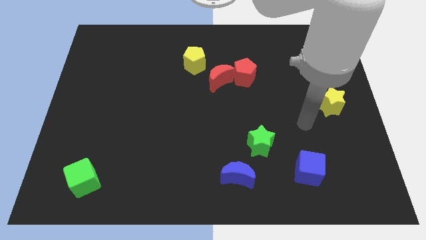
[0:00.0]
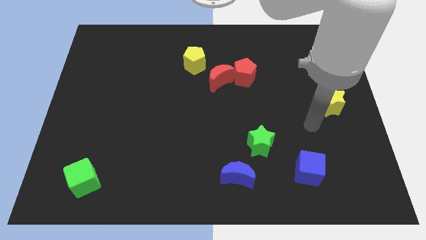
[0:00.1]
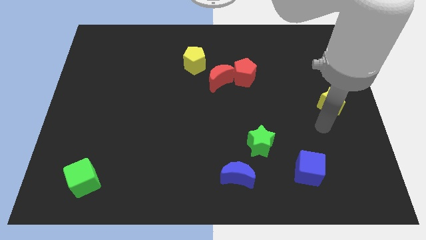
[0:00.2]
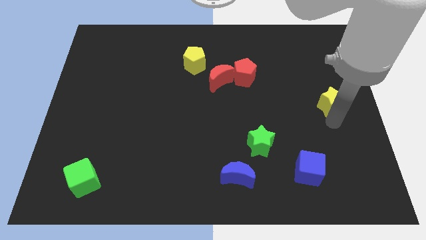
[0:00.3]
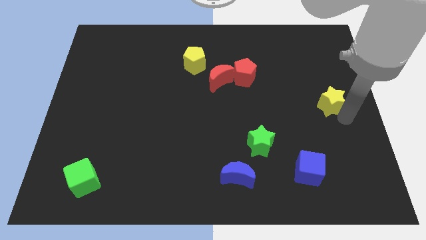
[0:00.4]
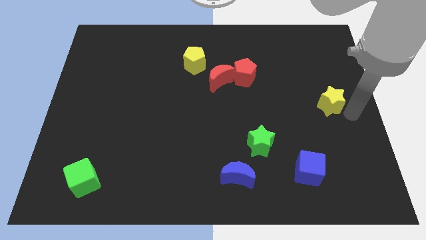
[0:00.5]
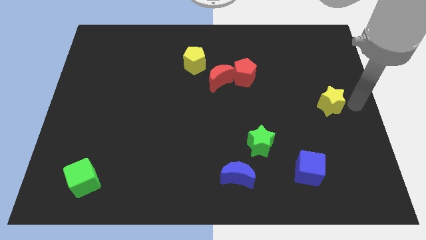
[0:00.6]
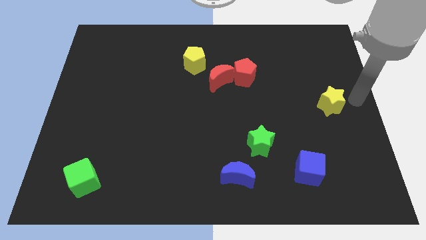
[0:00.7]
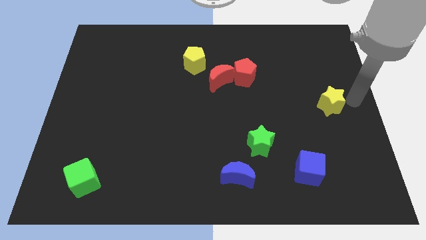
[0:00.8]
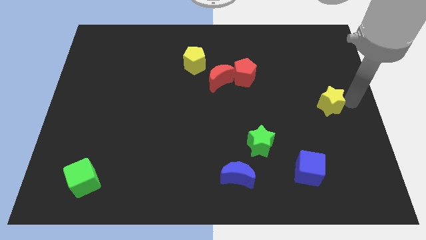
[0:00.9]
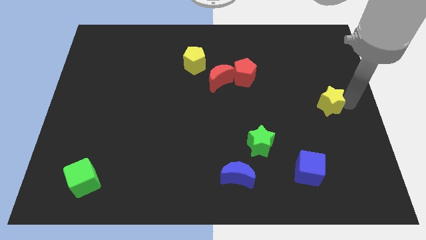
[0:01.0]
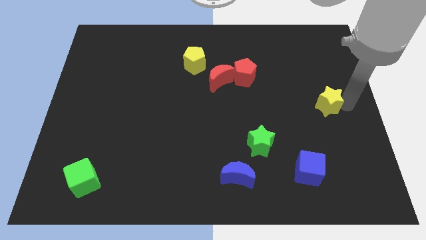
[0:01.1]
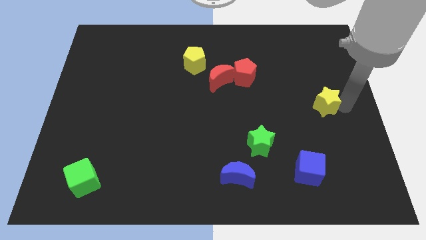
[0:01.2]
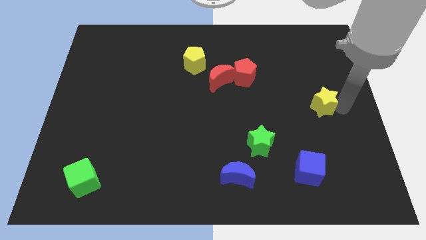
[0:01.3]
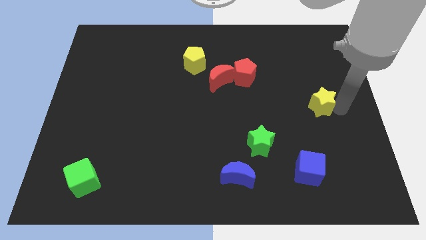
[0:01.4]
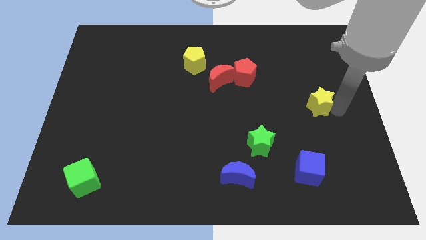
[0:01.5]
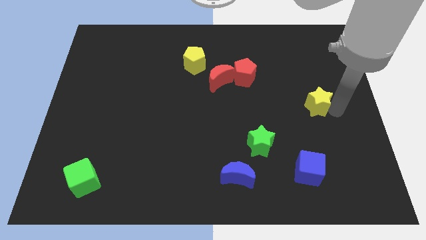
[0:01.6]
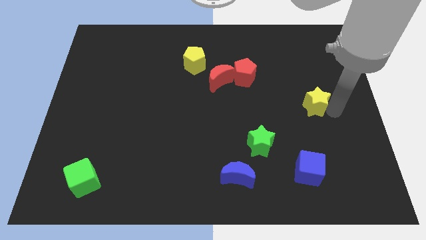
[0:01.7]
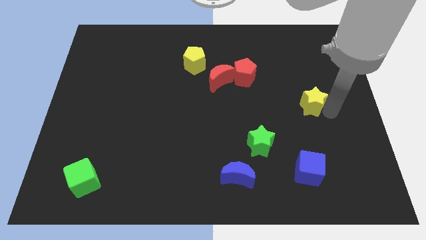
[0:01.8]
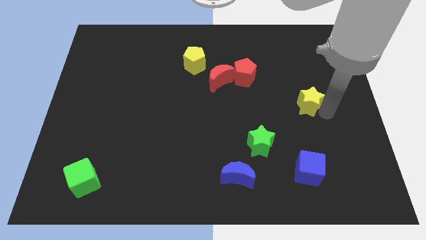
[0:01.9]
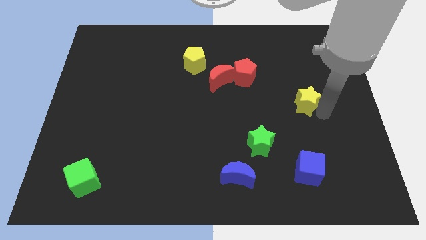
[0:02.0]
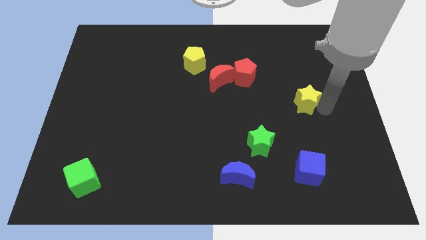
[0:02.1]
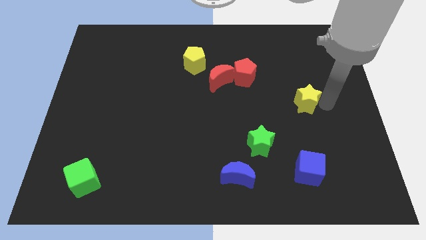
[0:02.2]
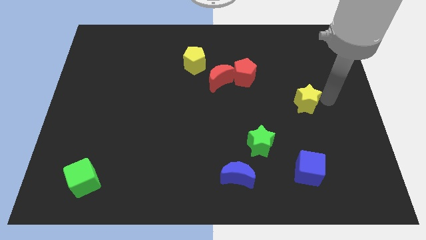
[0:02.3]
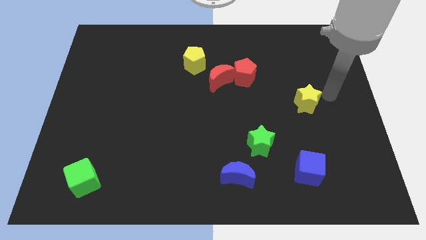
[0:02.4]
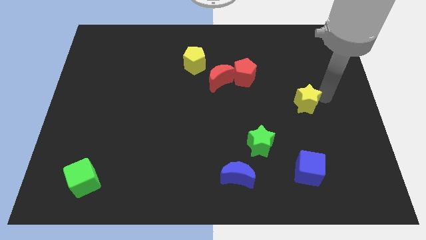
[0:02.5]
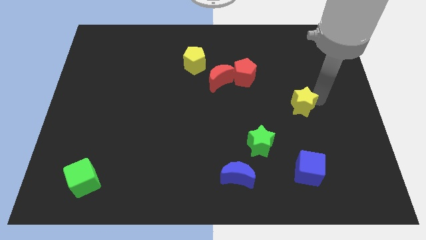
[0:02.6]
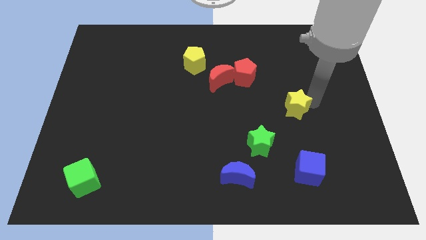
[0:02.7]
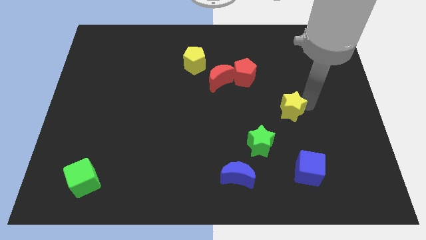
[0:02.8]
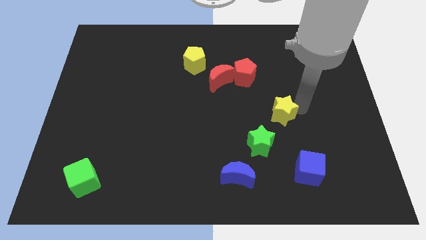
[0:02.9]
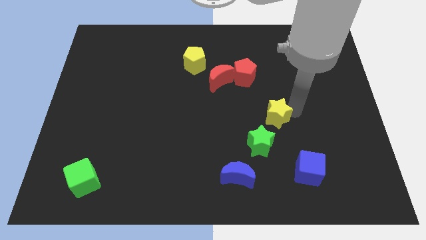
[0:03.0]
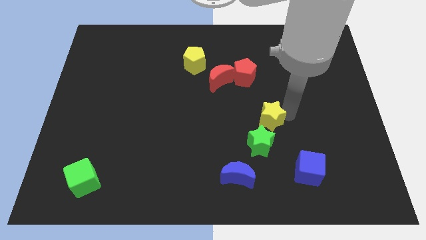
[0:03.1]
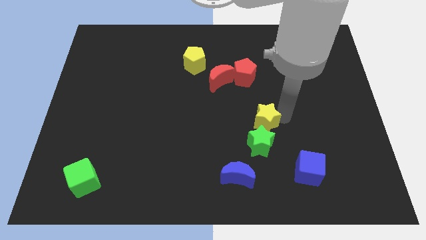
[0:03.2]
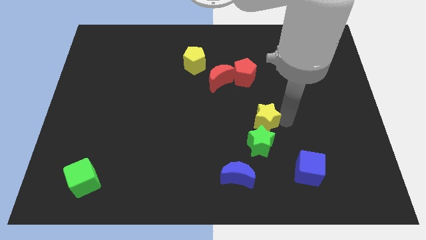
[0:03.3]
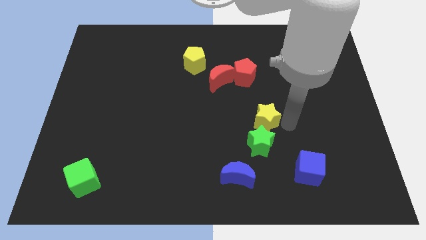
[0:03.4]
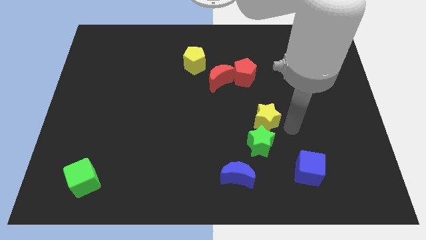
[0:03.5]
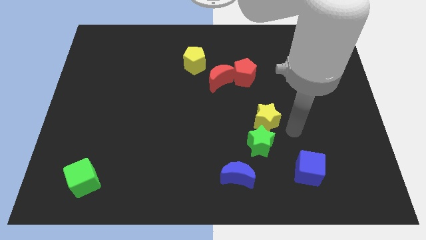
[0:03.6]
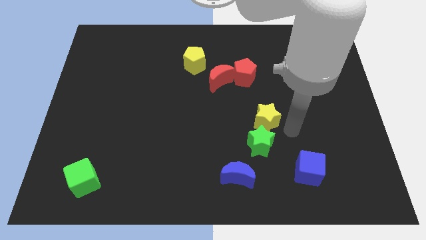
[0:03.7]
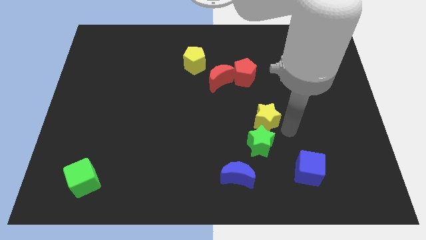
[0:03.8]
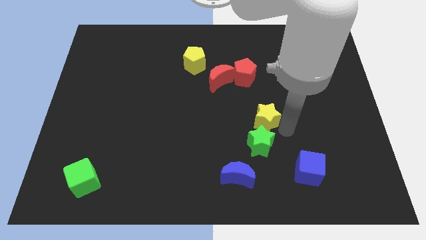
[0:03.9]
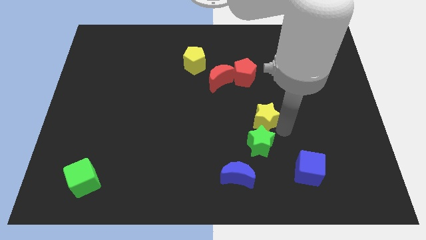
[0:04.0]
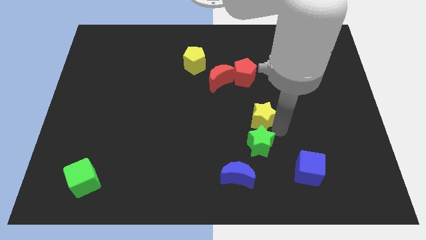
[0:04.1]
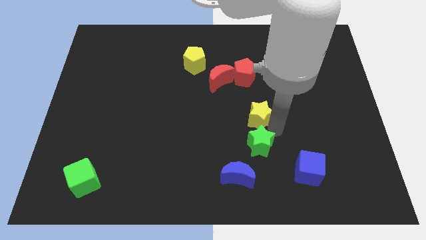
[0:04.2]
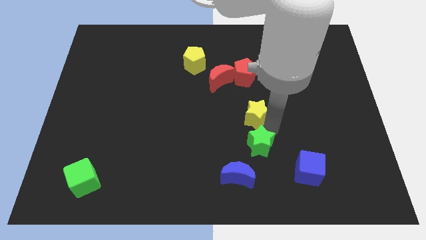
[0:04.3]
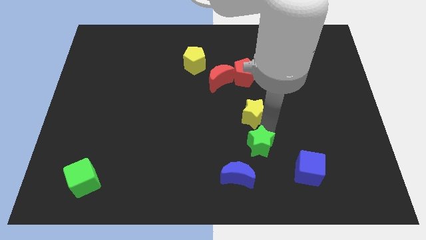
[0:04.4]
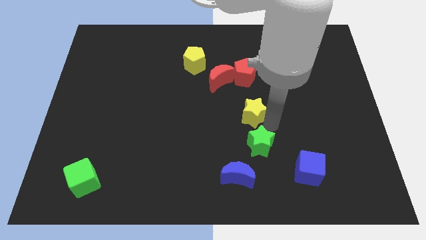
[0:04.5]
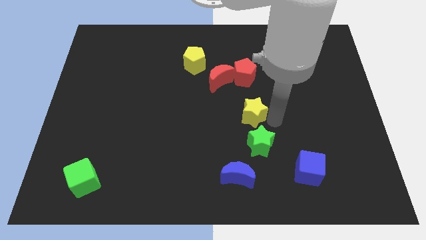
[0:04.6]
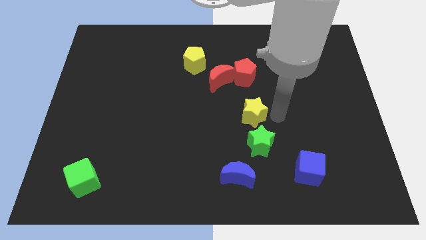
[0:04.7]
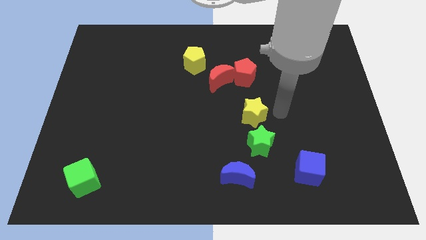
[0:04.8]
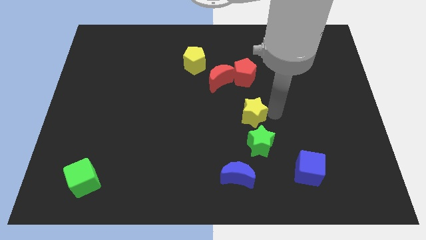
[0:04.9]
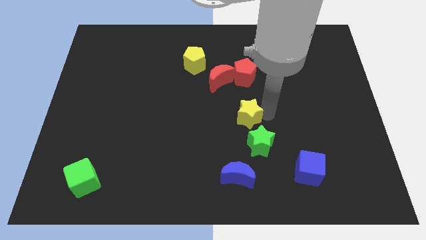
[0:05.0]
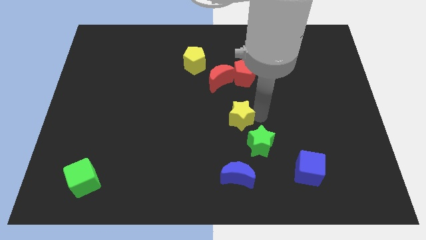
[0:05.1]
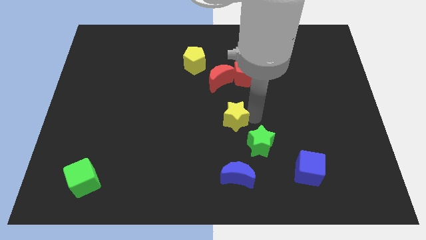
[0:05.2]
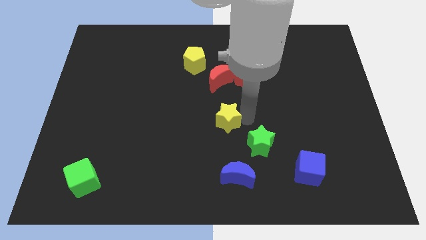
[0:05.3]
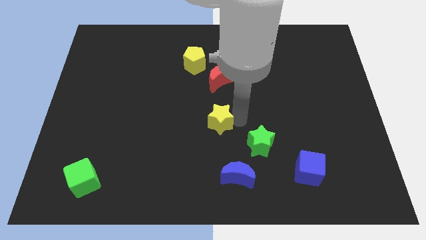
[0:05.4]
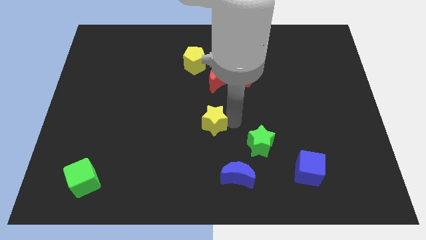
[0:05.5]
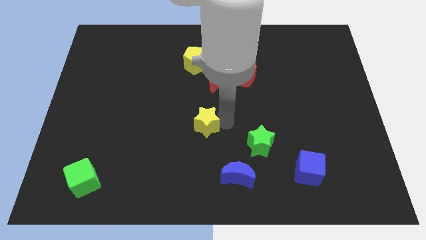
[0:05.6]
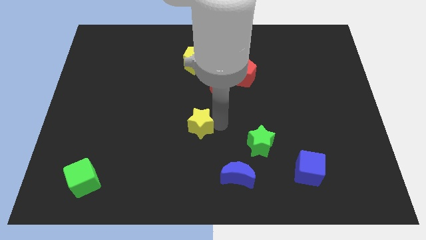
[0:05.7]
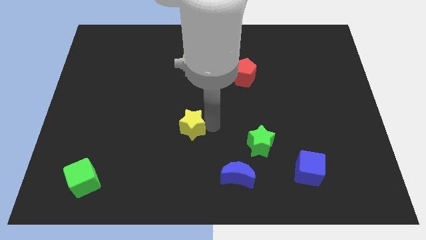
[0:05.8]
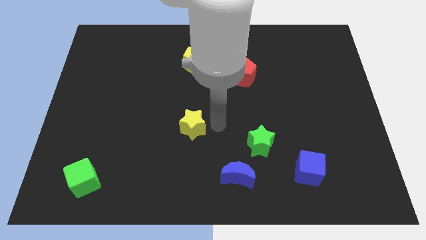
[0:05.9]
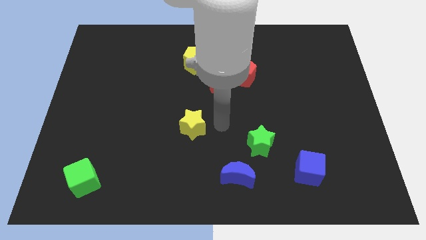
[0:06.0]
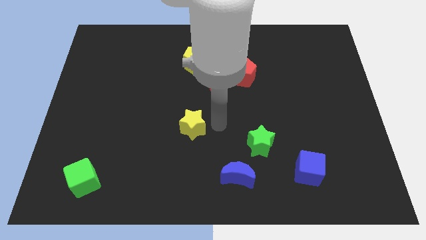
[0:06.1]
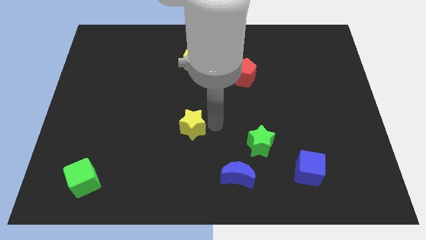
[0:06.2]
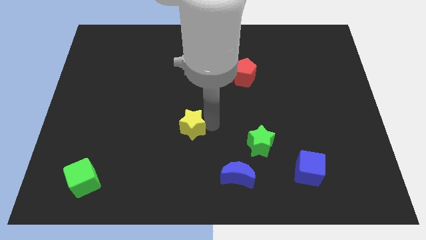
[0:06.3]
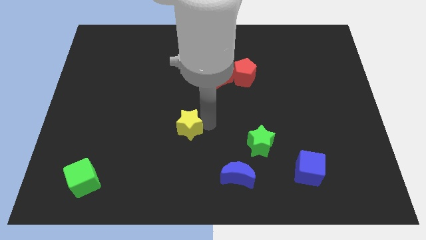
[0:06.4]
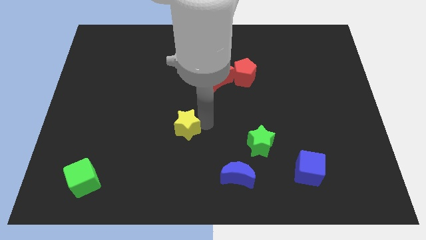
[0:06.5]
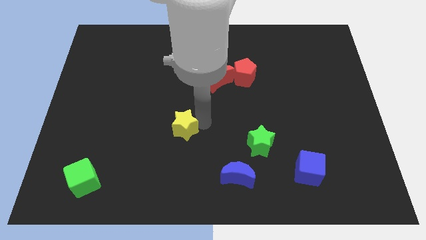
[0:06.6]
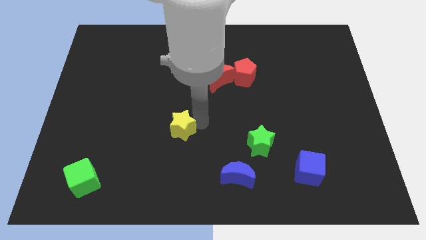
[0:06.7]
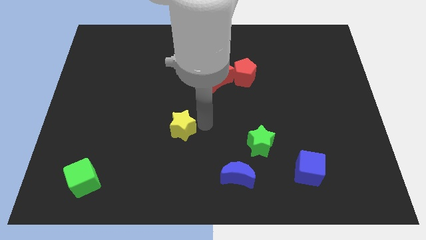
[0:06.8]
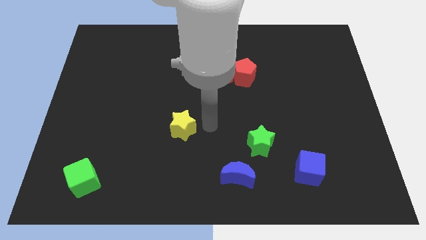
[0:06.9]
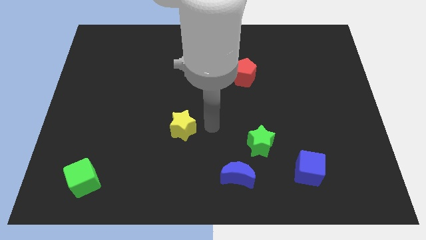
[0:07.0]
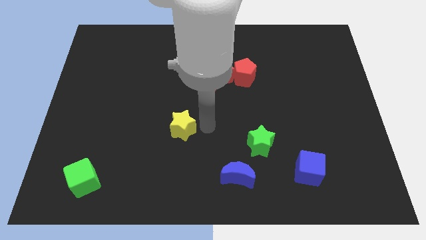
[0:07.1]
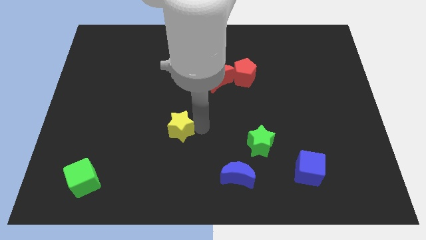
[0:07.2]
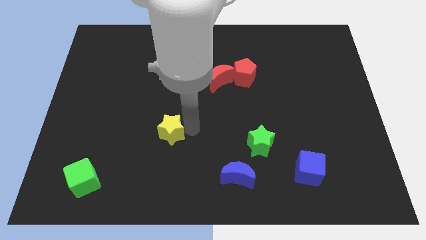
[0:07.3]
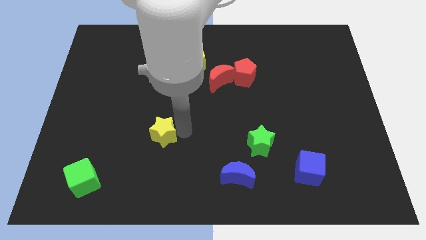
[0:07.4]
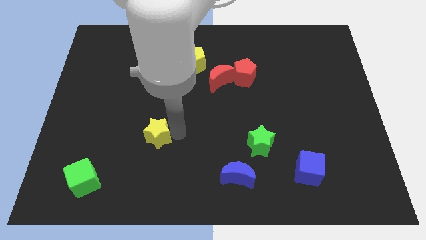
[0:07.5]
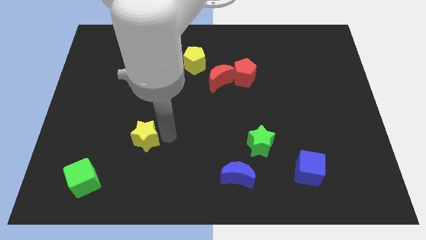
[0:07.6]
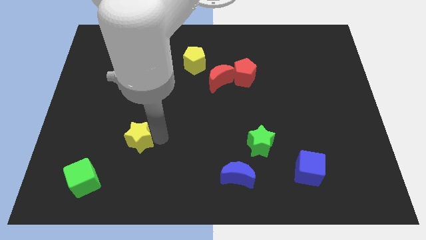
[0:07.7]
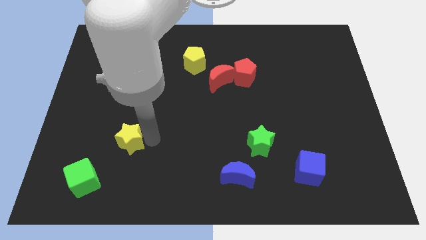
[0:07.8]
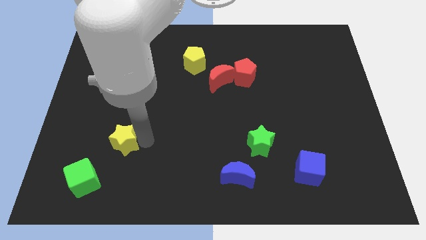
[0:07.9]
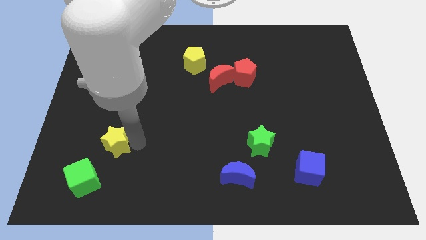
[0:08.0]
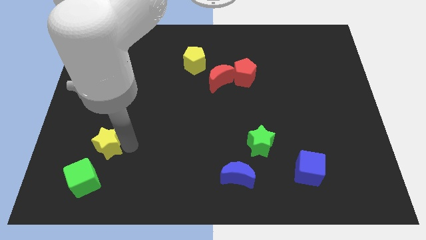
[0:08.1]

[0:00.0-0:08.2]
slide the yellow star to the top side of the green cube
